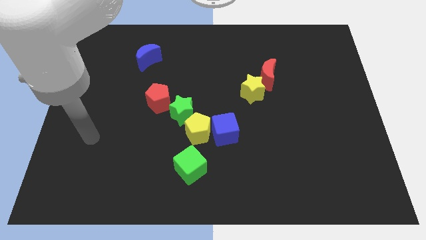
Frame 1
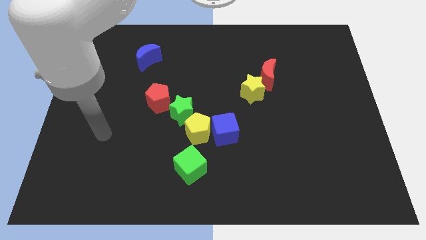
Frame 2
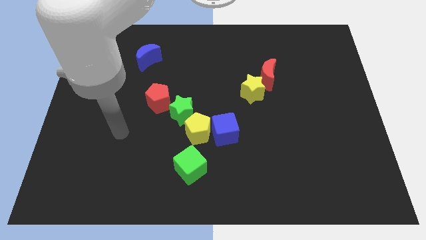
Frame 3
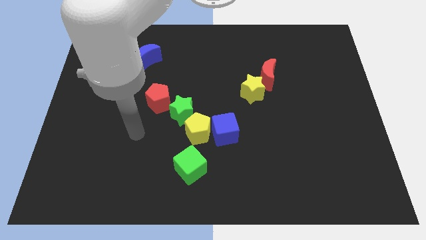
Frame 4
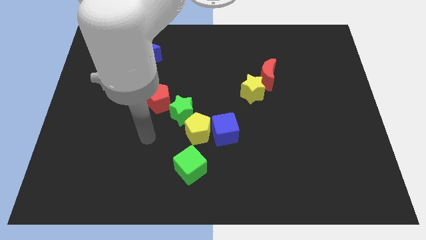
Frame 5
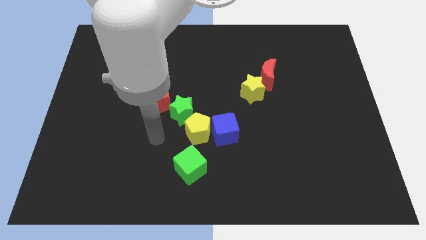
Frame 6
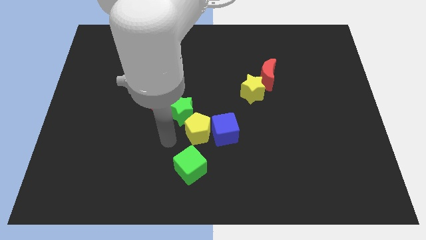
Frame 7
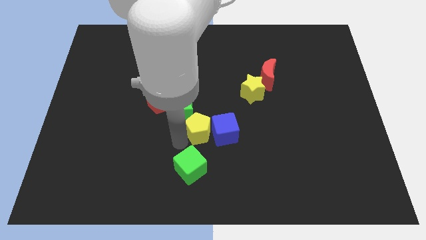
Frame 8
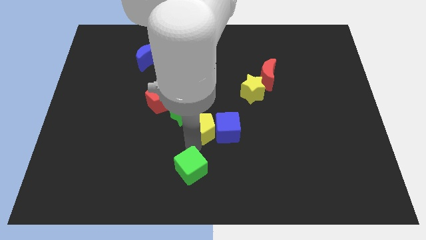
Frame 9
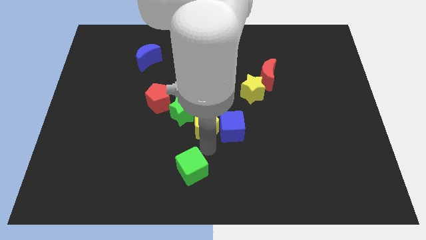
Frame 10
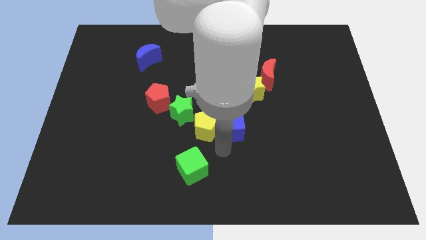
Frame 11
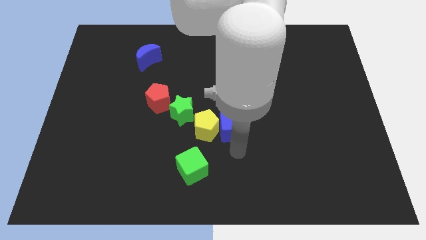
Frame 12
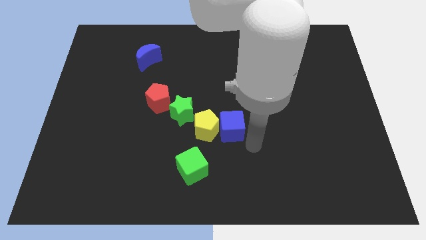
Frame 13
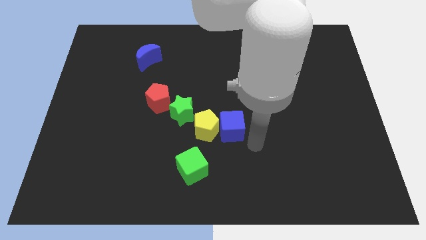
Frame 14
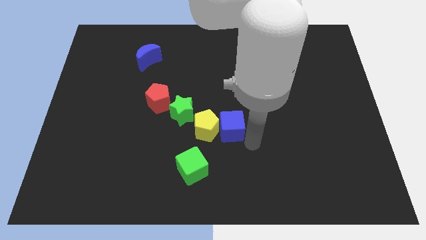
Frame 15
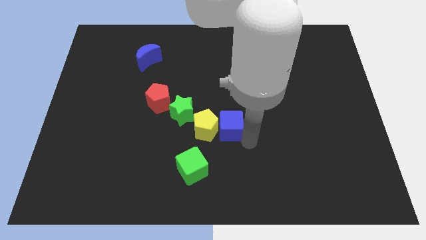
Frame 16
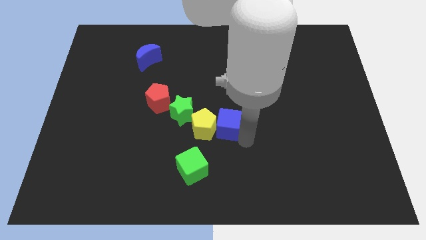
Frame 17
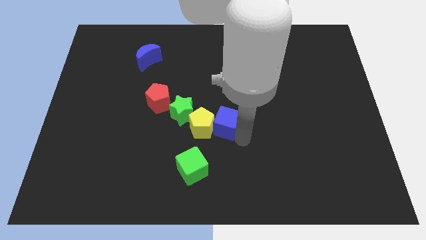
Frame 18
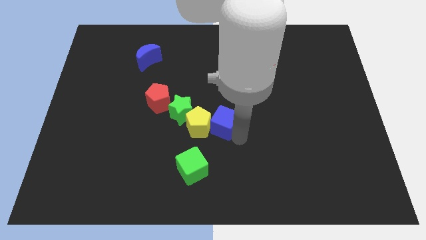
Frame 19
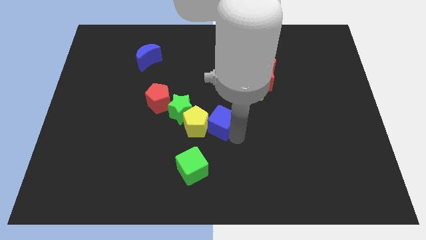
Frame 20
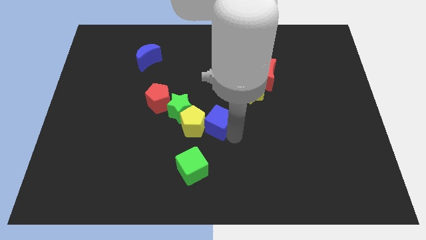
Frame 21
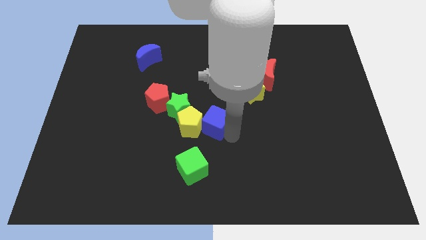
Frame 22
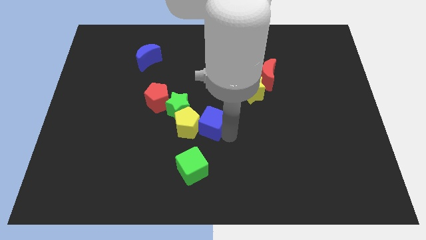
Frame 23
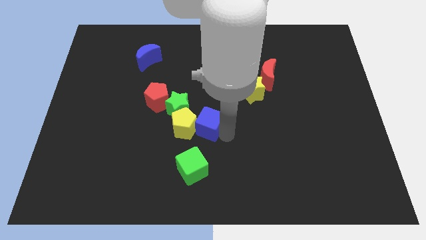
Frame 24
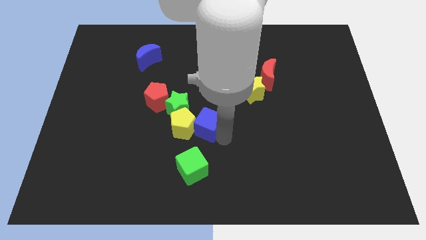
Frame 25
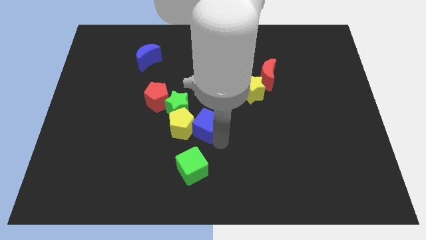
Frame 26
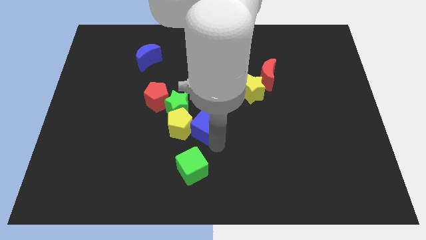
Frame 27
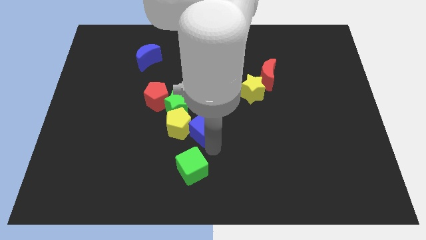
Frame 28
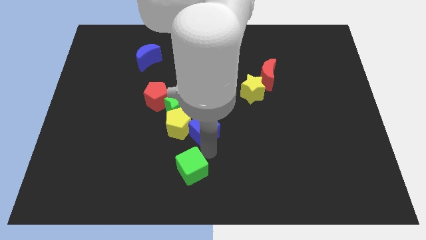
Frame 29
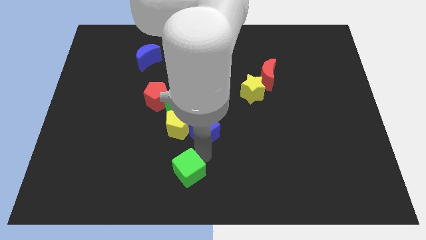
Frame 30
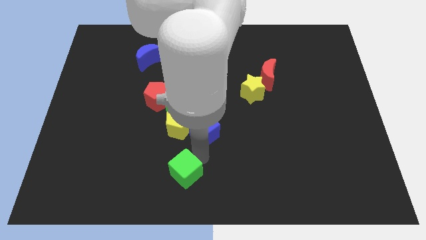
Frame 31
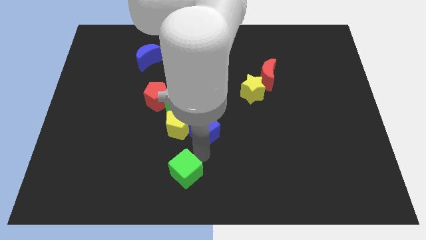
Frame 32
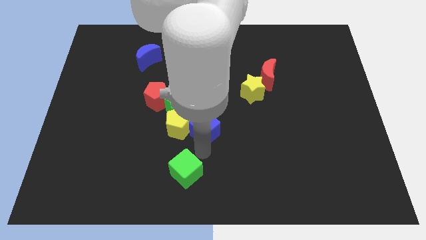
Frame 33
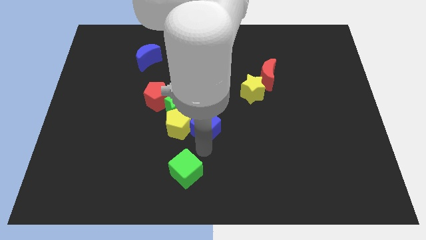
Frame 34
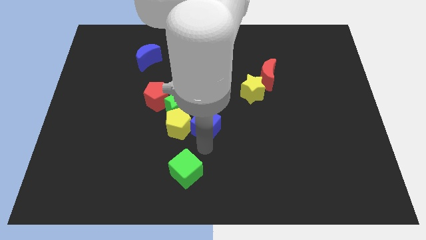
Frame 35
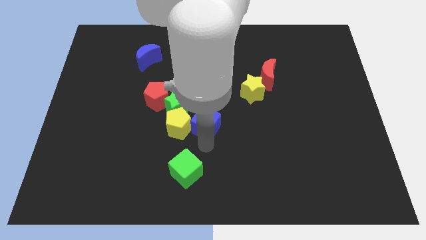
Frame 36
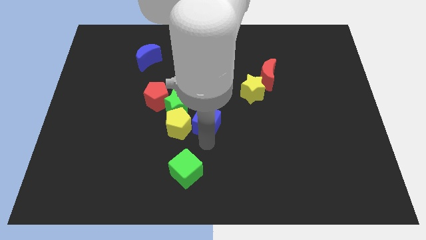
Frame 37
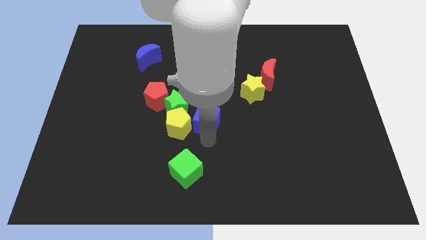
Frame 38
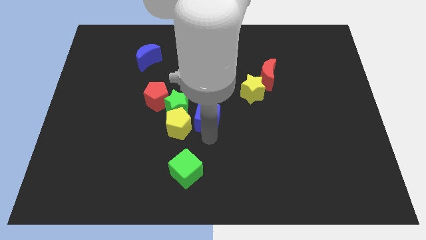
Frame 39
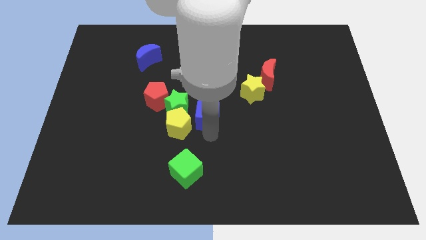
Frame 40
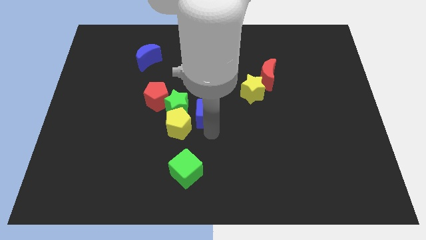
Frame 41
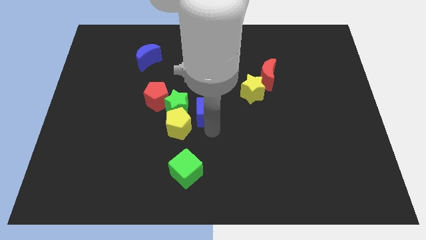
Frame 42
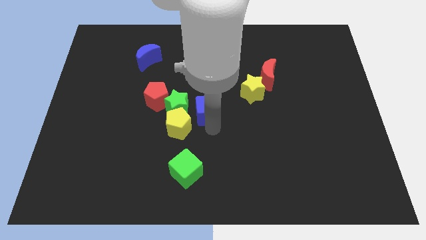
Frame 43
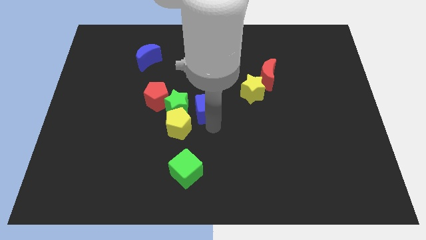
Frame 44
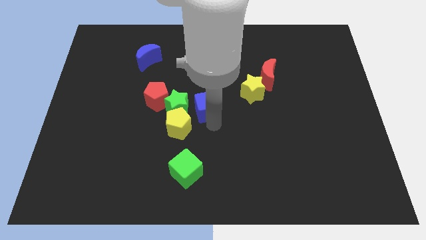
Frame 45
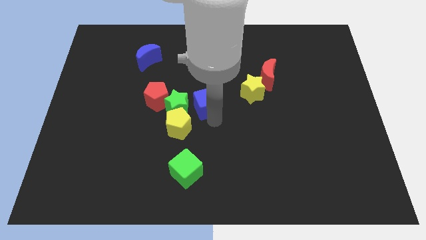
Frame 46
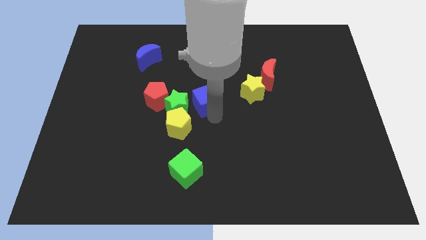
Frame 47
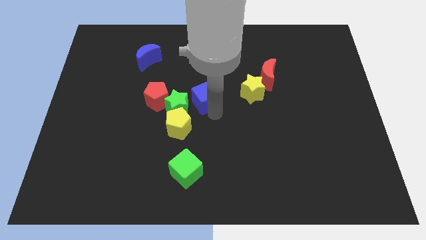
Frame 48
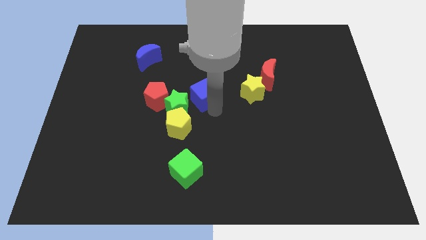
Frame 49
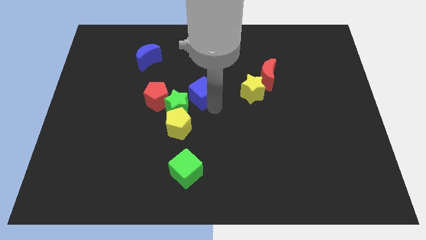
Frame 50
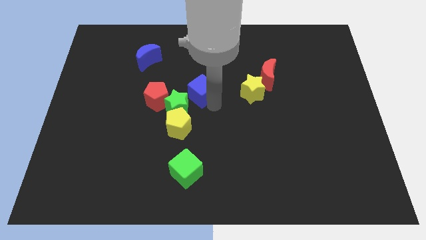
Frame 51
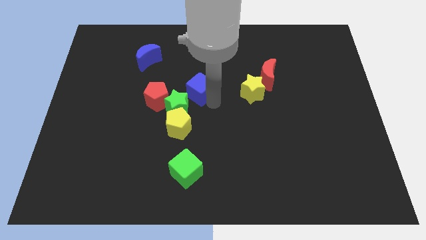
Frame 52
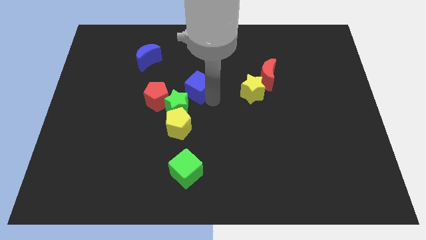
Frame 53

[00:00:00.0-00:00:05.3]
slide the blue cube diagonally up and to the right of the red pentagon

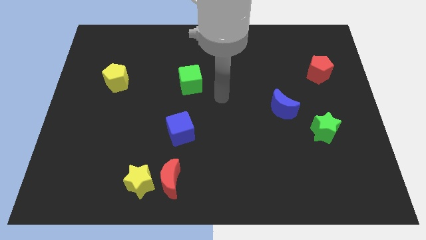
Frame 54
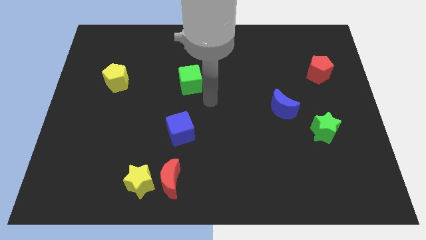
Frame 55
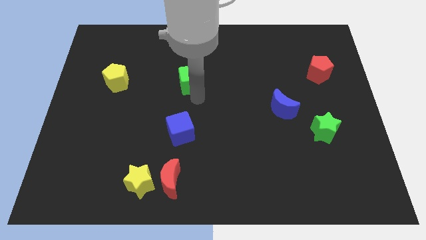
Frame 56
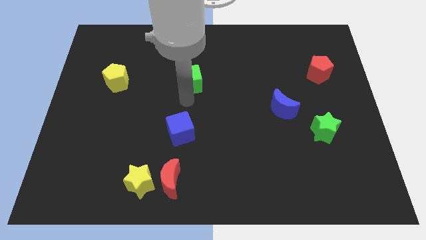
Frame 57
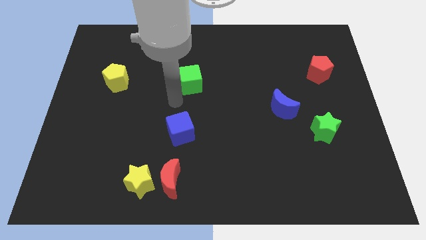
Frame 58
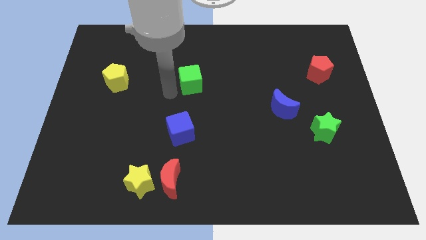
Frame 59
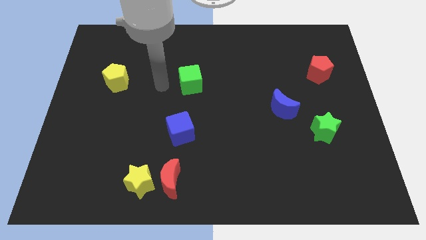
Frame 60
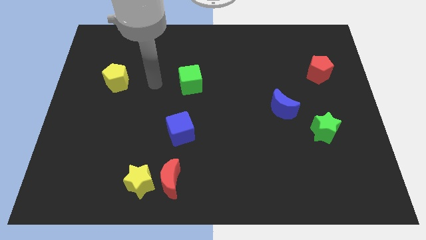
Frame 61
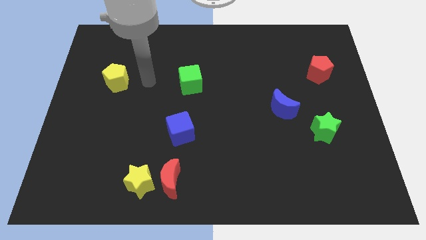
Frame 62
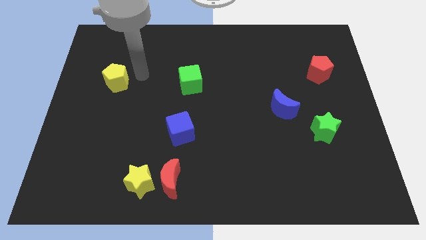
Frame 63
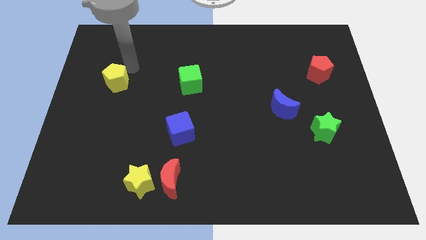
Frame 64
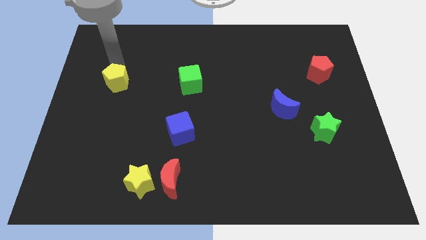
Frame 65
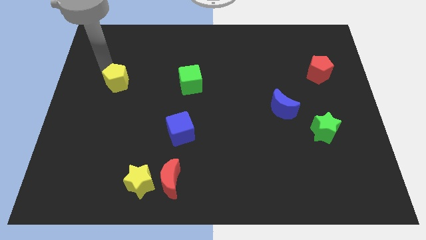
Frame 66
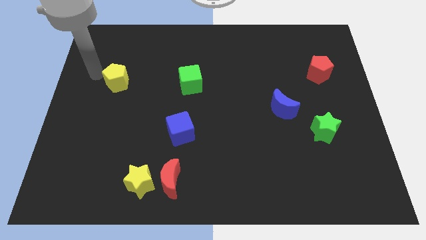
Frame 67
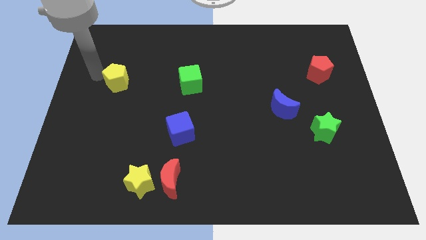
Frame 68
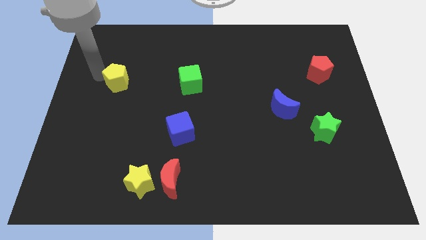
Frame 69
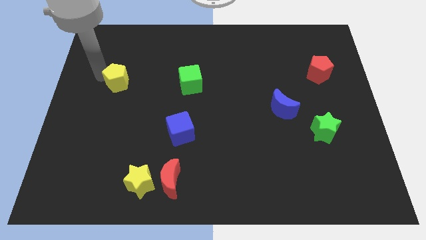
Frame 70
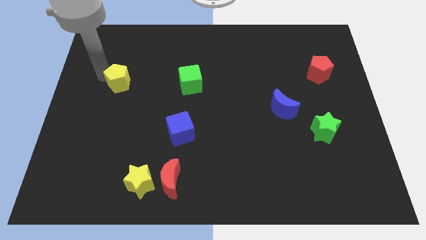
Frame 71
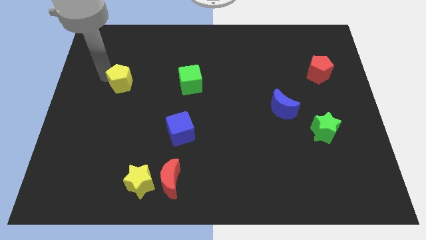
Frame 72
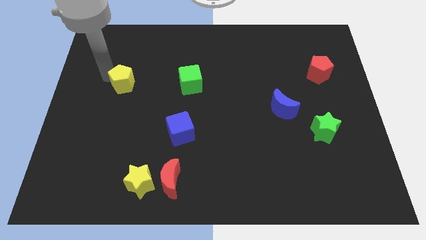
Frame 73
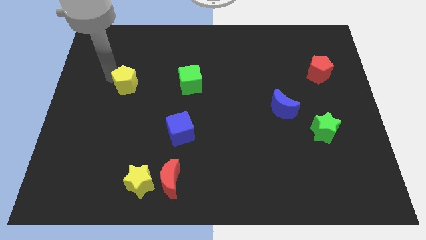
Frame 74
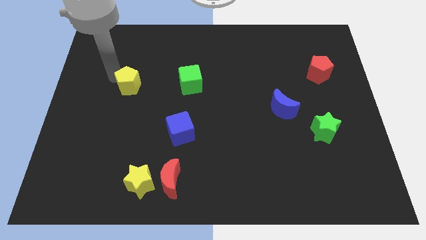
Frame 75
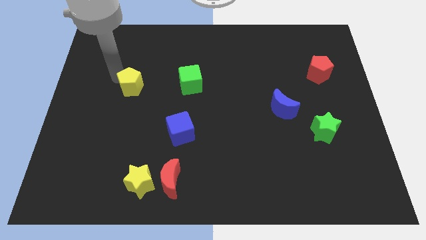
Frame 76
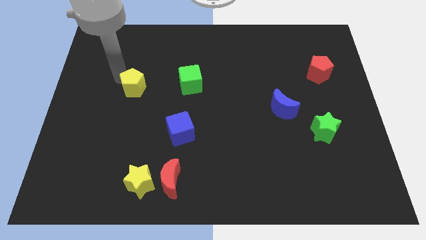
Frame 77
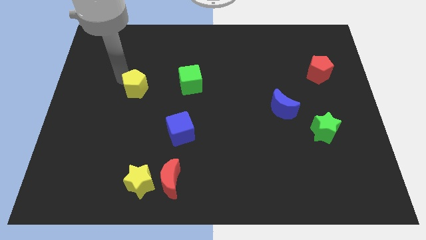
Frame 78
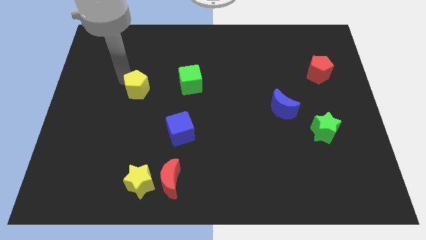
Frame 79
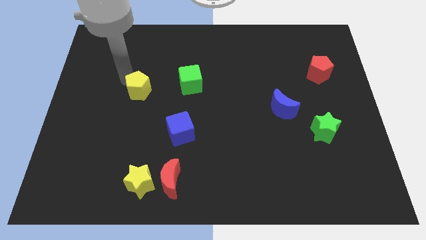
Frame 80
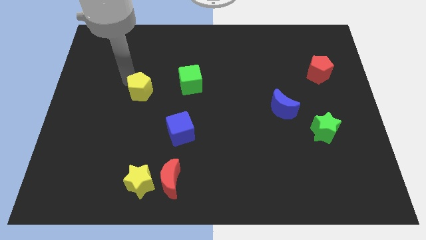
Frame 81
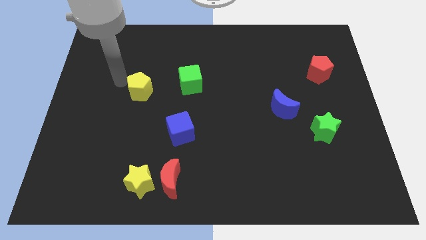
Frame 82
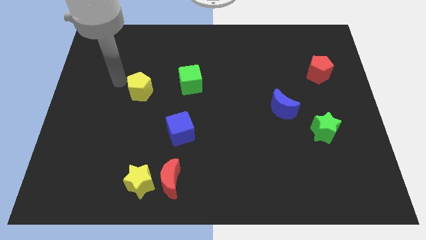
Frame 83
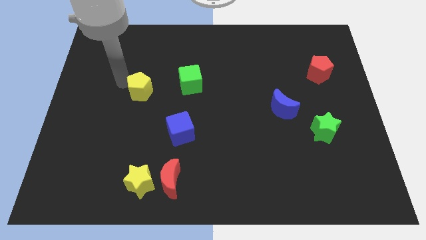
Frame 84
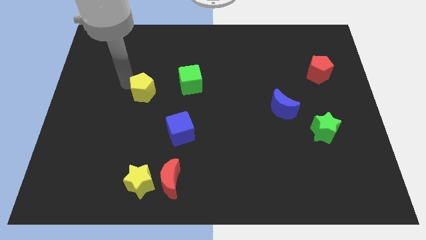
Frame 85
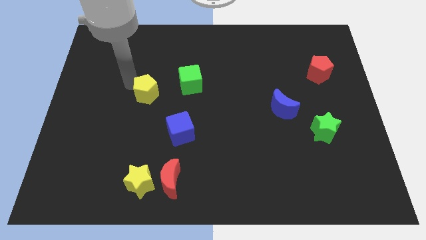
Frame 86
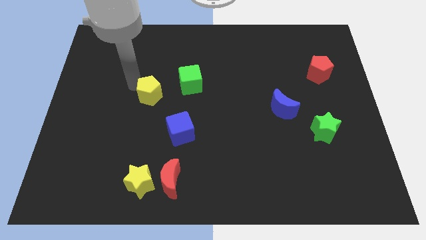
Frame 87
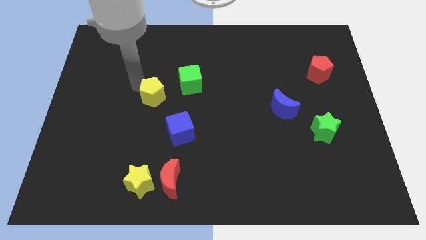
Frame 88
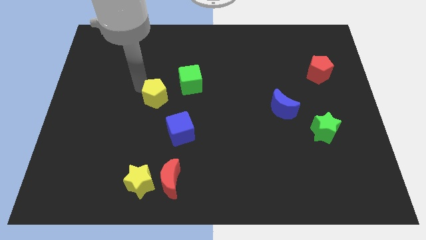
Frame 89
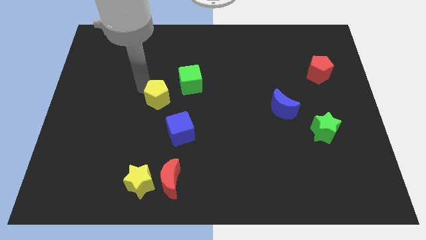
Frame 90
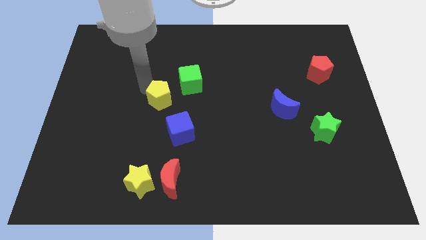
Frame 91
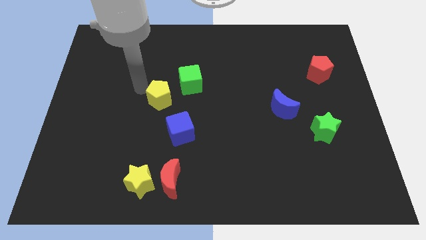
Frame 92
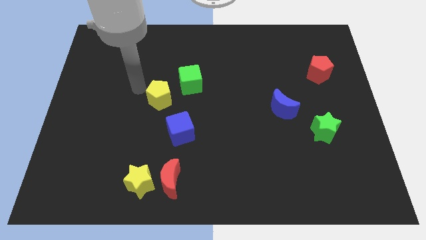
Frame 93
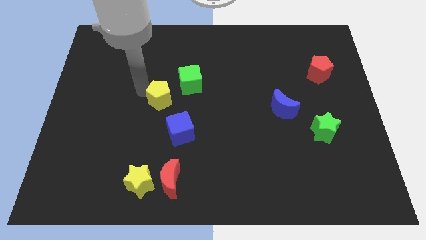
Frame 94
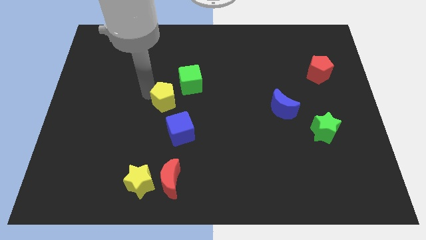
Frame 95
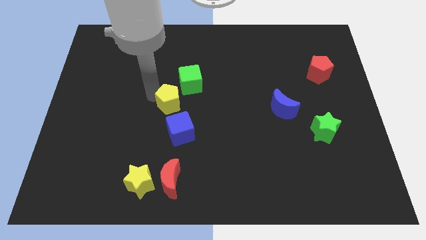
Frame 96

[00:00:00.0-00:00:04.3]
push the yellow pentagon to the bottom side of the green cube
